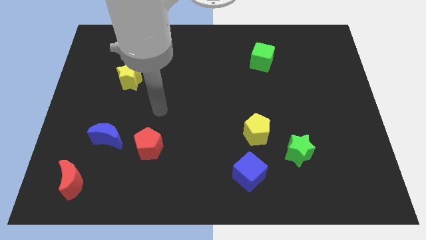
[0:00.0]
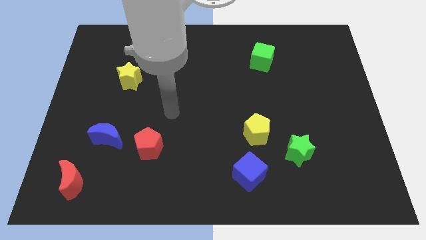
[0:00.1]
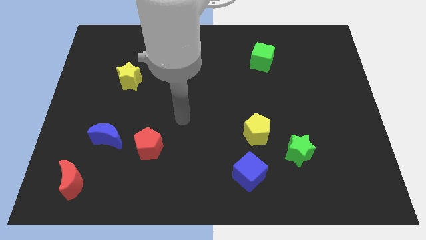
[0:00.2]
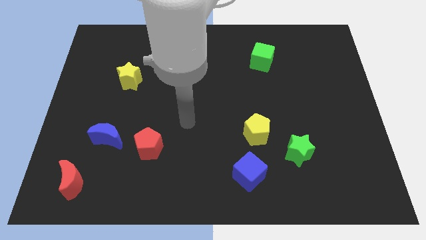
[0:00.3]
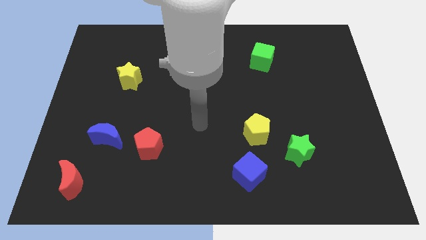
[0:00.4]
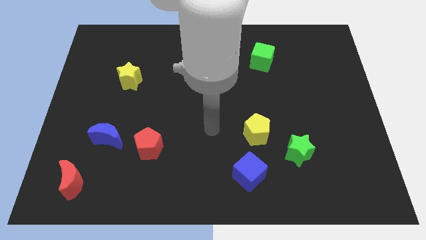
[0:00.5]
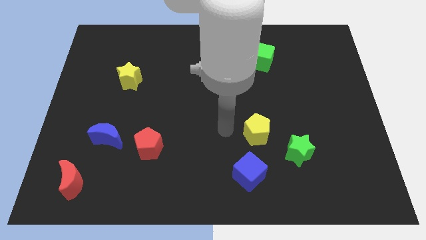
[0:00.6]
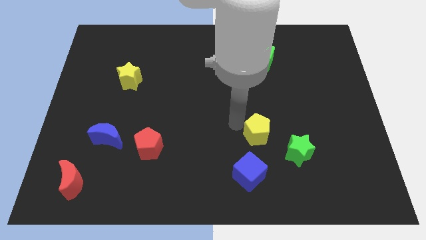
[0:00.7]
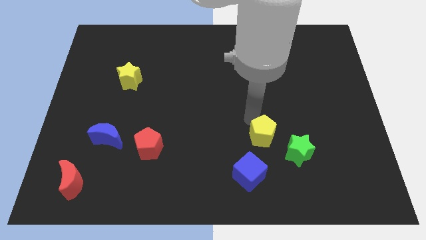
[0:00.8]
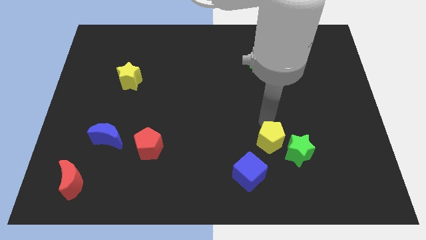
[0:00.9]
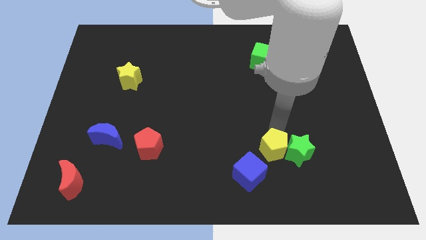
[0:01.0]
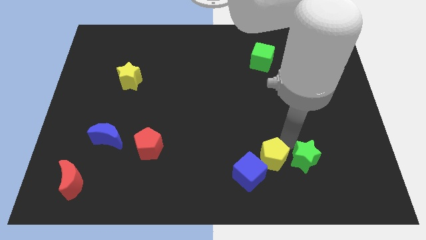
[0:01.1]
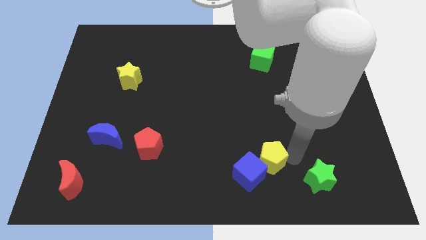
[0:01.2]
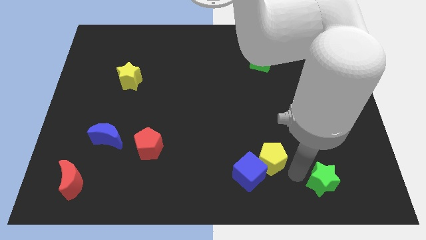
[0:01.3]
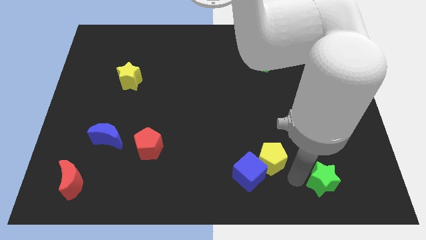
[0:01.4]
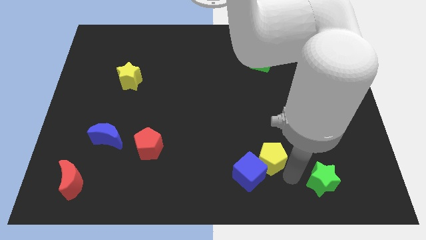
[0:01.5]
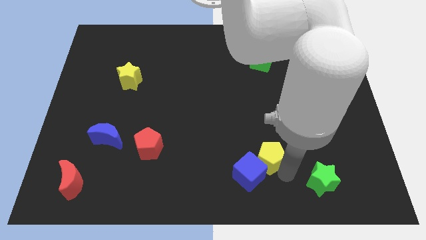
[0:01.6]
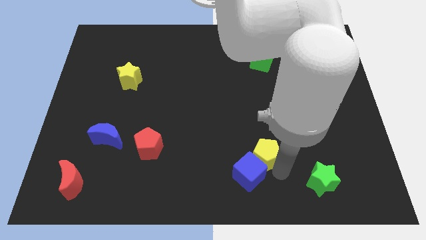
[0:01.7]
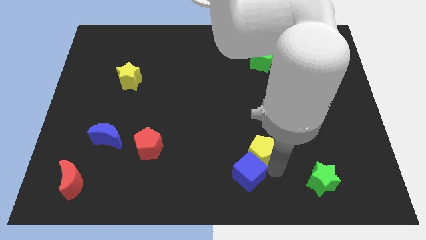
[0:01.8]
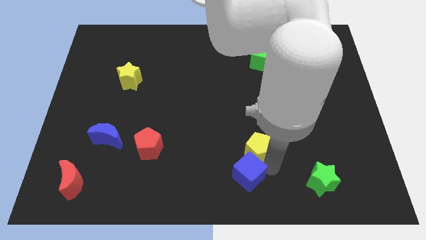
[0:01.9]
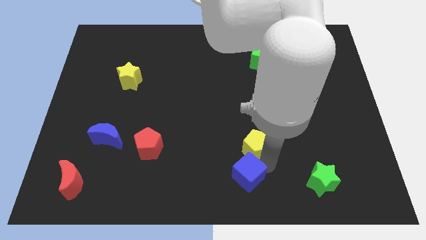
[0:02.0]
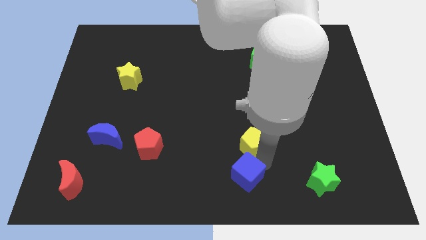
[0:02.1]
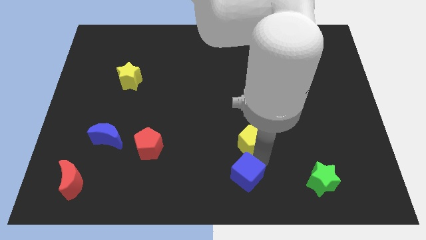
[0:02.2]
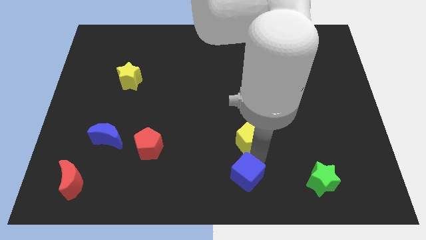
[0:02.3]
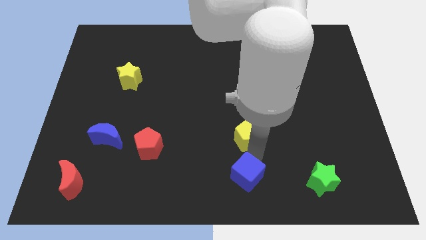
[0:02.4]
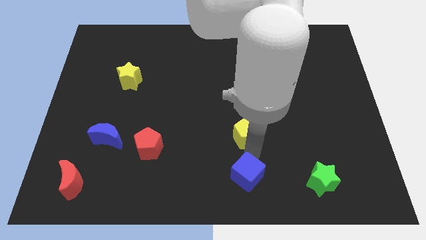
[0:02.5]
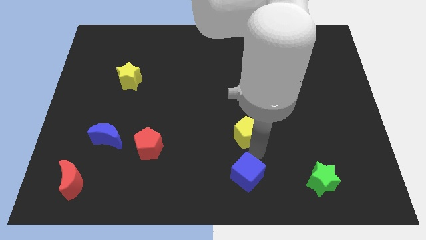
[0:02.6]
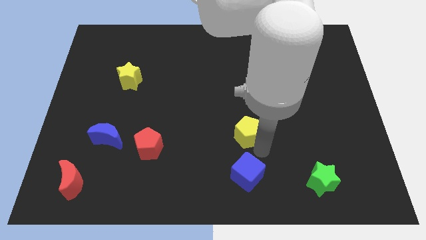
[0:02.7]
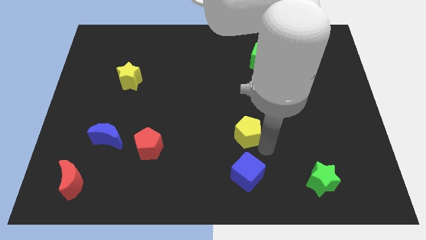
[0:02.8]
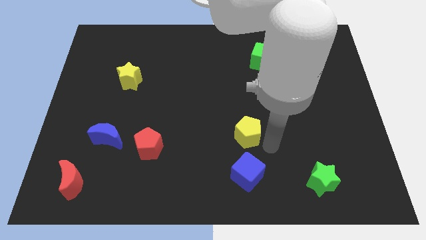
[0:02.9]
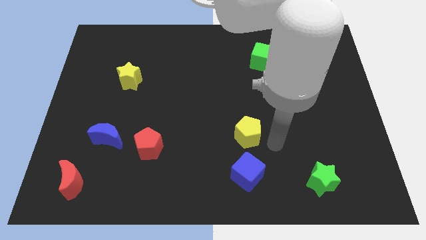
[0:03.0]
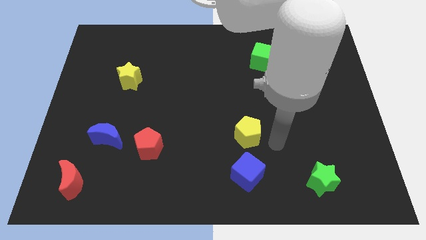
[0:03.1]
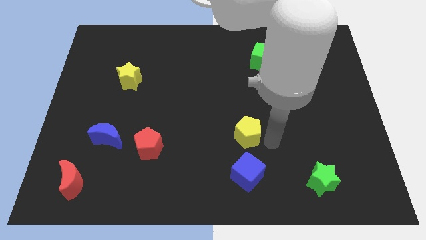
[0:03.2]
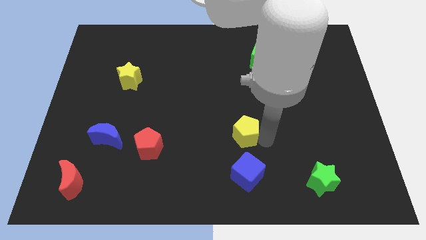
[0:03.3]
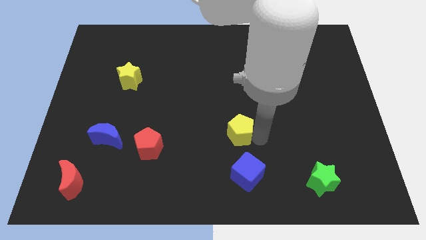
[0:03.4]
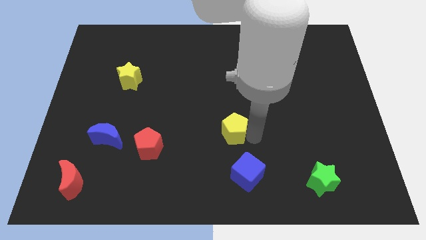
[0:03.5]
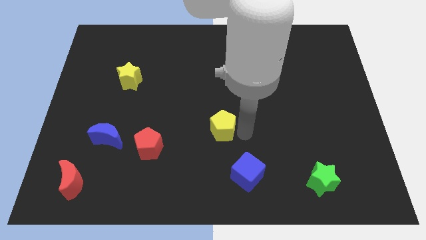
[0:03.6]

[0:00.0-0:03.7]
slide the yellow pentagon left somewhat

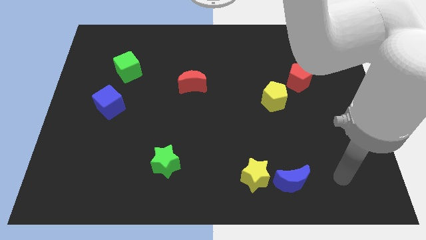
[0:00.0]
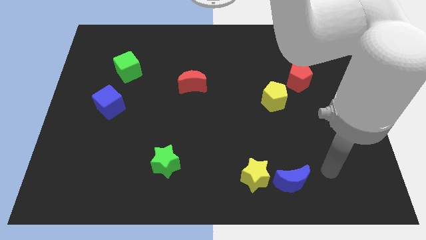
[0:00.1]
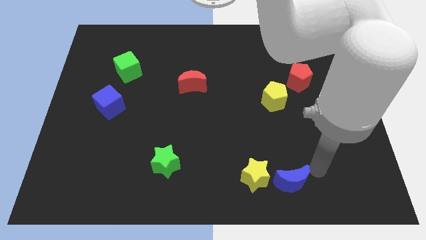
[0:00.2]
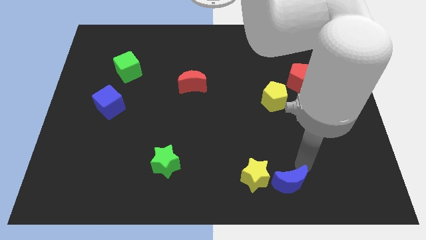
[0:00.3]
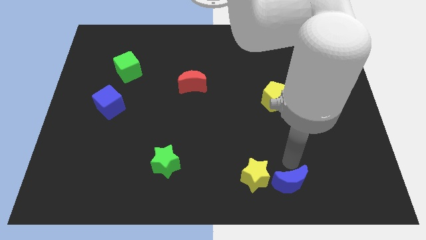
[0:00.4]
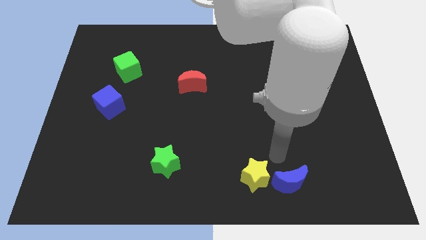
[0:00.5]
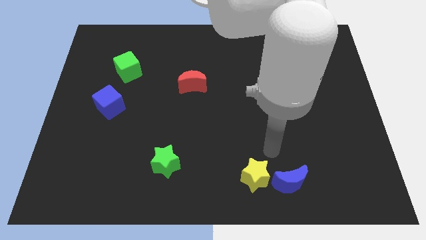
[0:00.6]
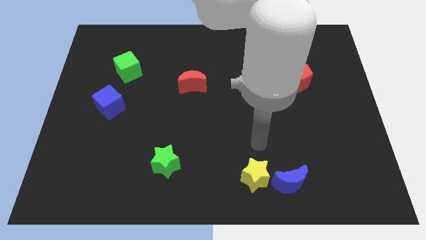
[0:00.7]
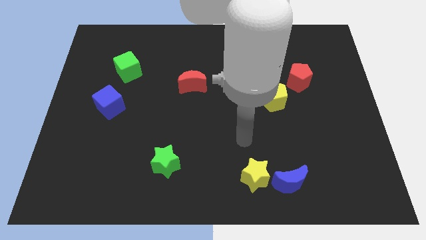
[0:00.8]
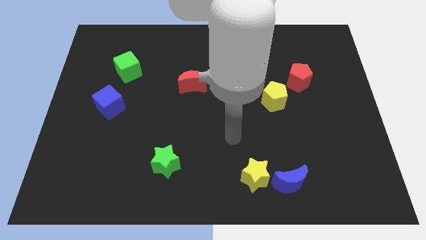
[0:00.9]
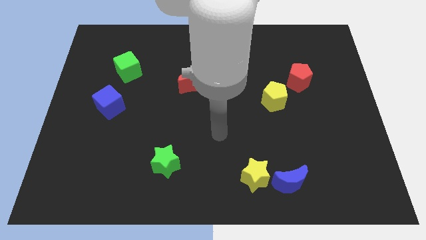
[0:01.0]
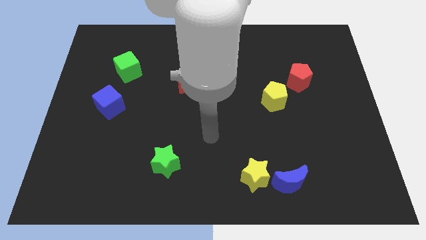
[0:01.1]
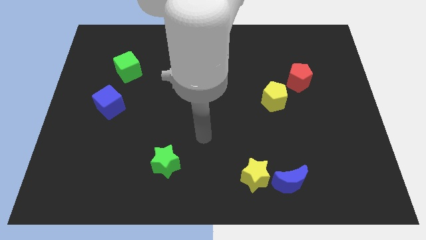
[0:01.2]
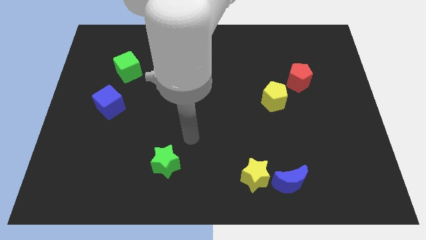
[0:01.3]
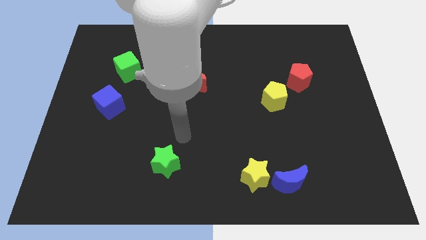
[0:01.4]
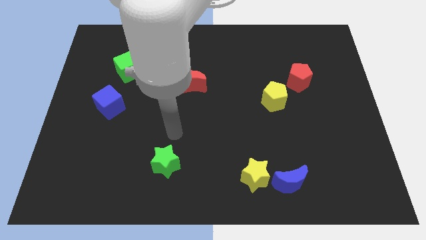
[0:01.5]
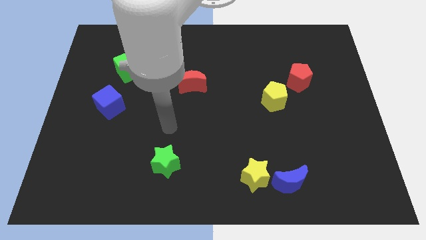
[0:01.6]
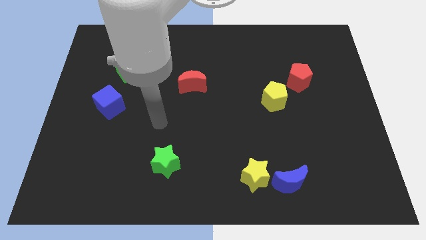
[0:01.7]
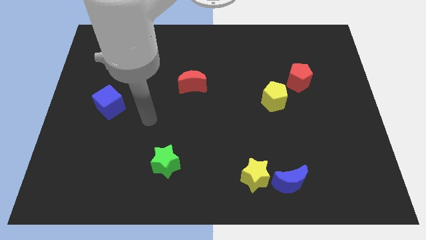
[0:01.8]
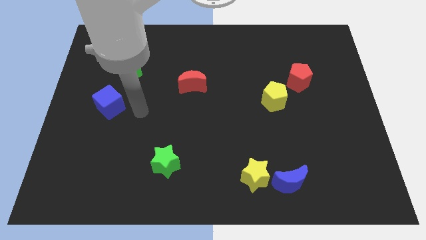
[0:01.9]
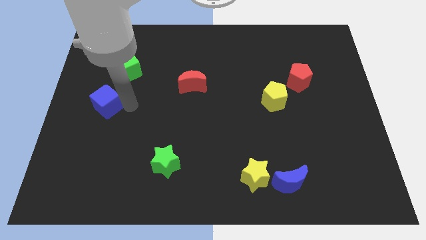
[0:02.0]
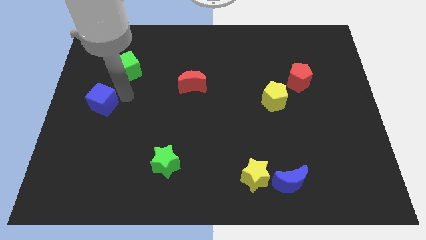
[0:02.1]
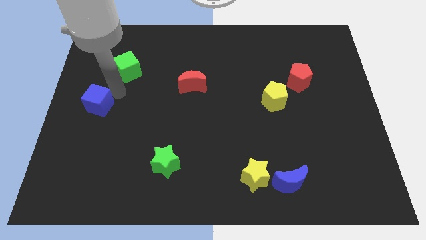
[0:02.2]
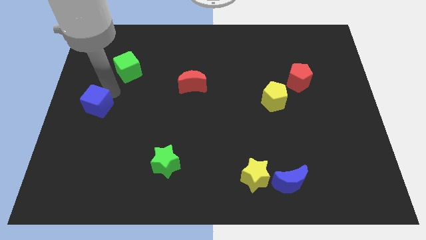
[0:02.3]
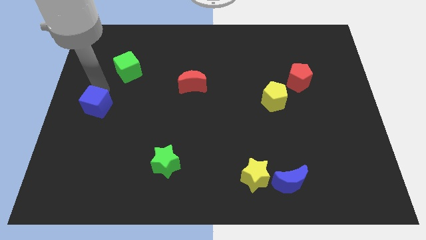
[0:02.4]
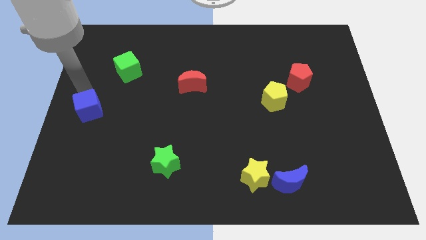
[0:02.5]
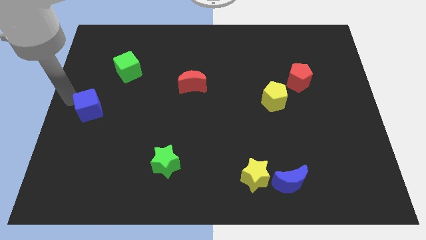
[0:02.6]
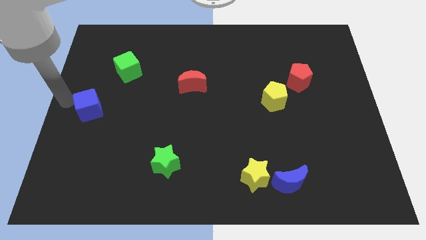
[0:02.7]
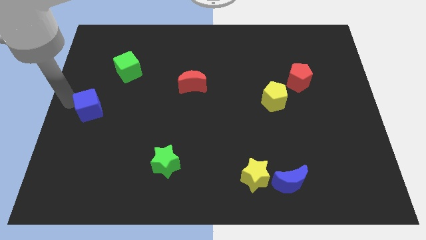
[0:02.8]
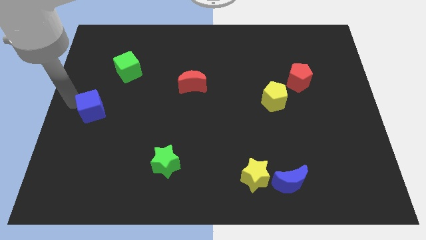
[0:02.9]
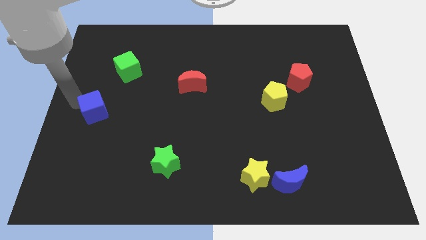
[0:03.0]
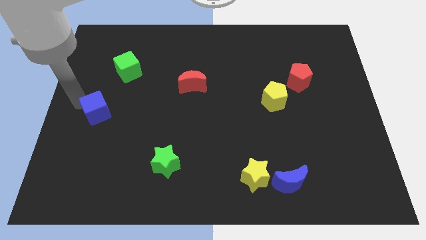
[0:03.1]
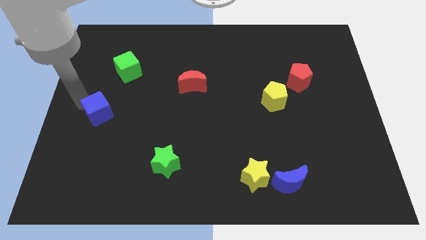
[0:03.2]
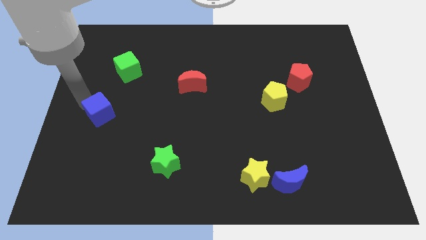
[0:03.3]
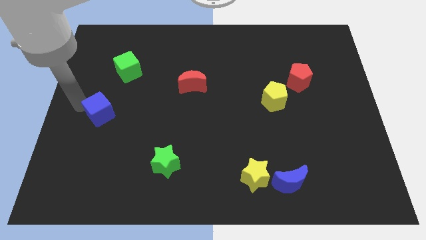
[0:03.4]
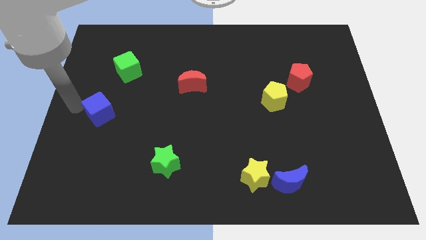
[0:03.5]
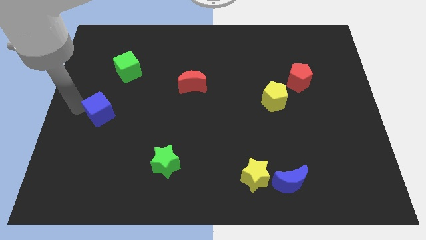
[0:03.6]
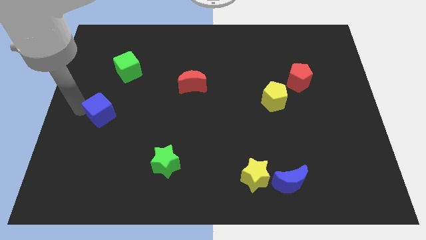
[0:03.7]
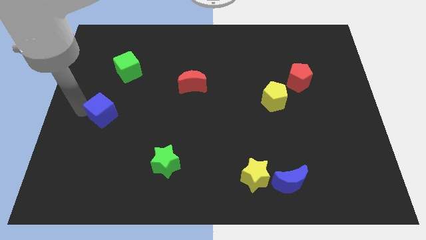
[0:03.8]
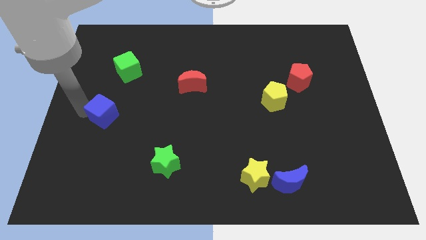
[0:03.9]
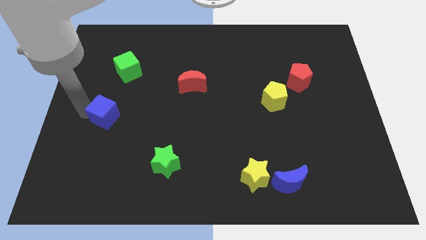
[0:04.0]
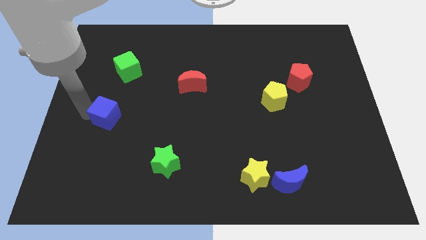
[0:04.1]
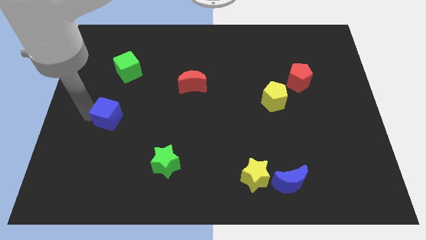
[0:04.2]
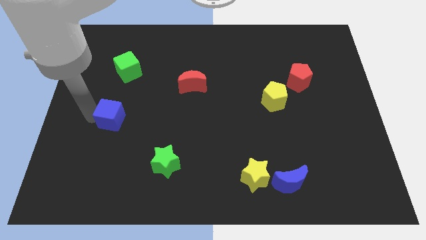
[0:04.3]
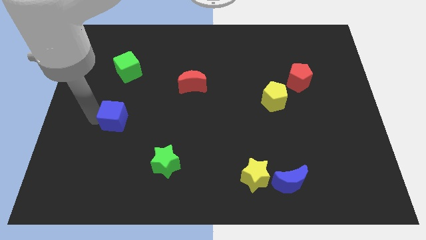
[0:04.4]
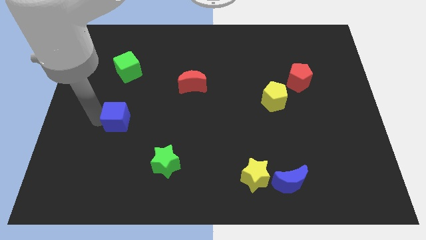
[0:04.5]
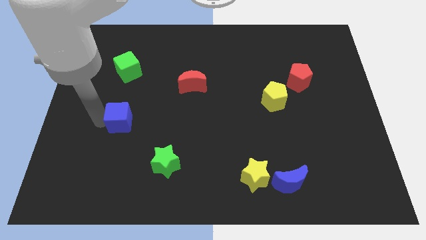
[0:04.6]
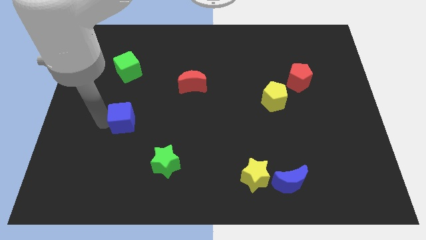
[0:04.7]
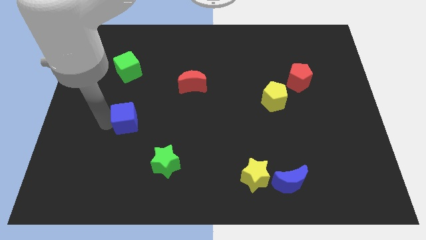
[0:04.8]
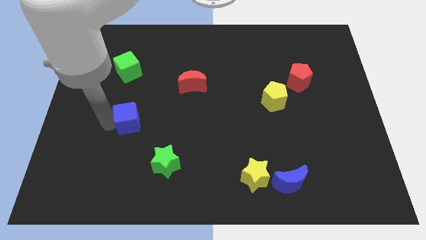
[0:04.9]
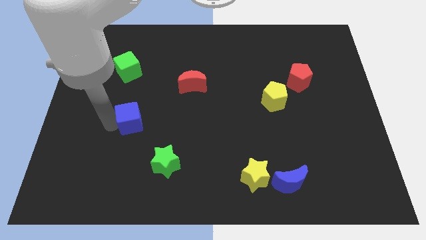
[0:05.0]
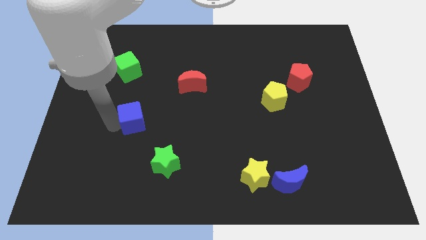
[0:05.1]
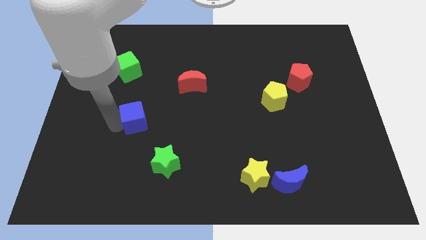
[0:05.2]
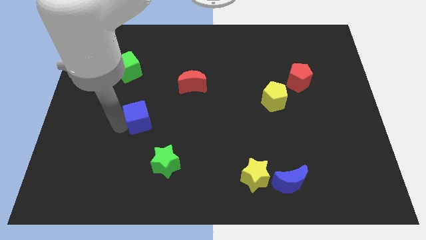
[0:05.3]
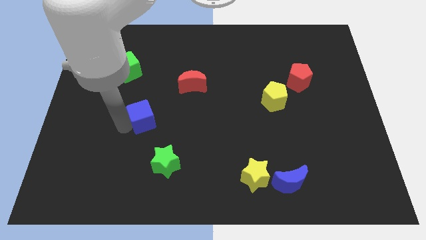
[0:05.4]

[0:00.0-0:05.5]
push the blue cube a bit to the right
